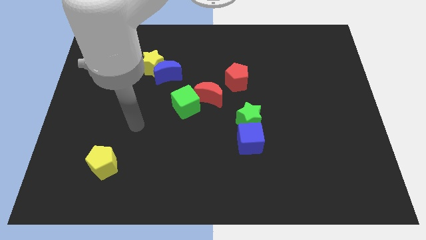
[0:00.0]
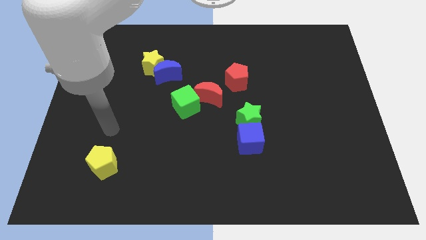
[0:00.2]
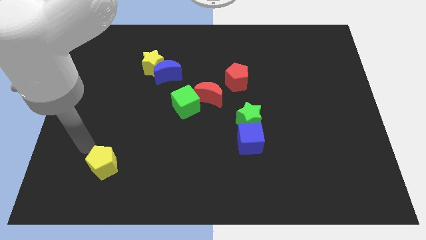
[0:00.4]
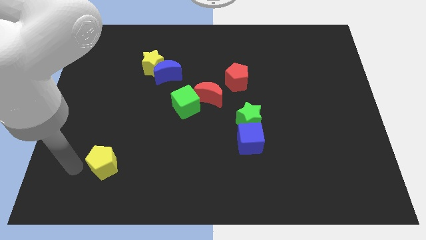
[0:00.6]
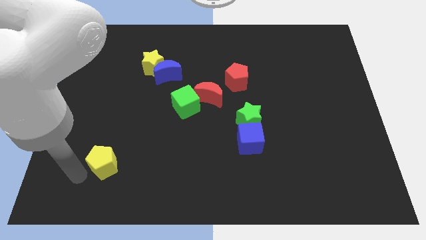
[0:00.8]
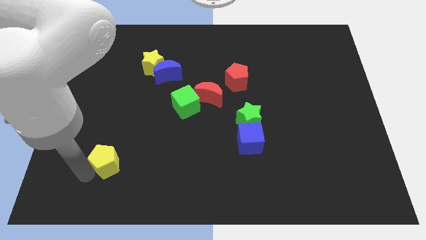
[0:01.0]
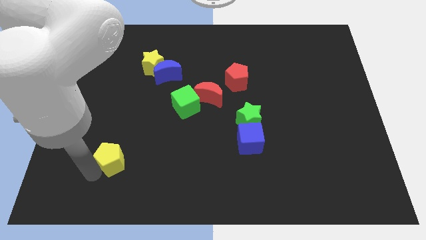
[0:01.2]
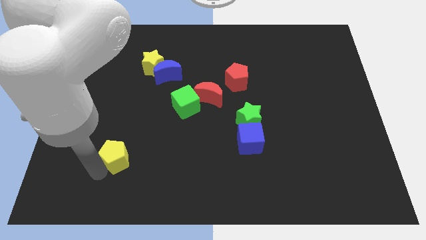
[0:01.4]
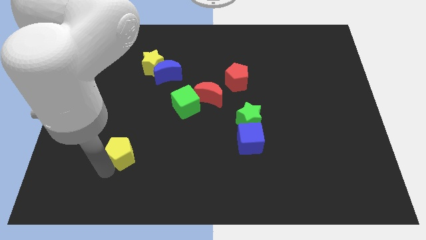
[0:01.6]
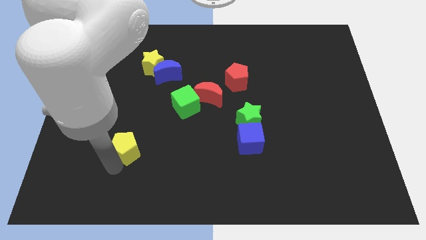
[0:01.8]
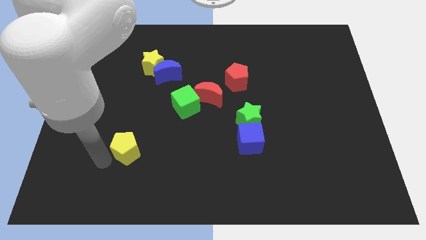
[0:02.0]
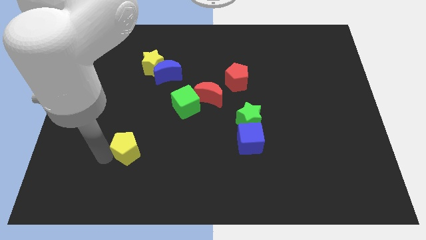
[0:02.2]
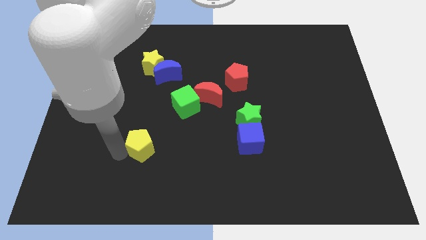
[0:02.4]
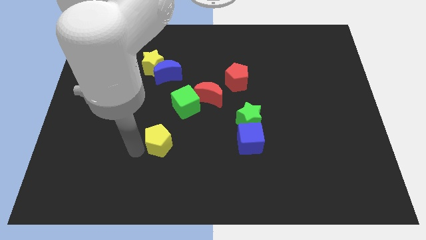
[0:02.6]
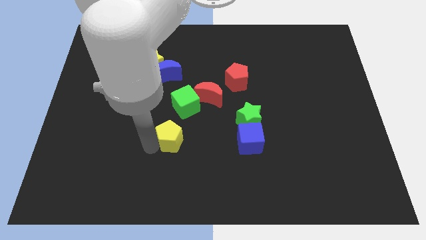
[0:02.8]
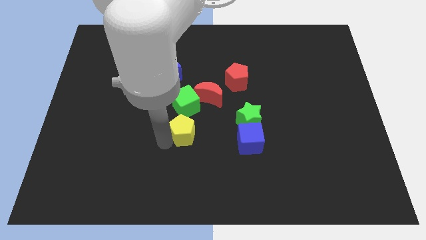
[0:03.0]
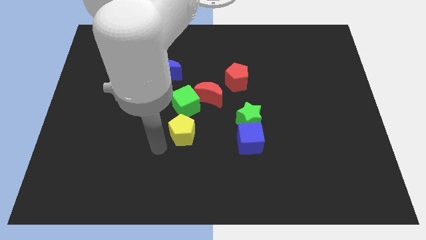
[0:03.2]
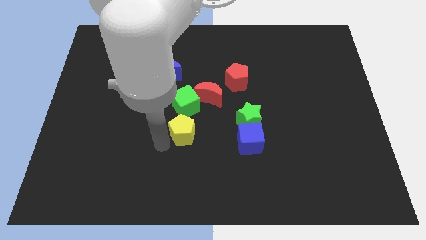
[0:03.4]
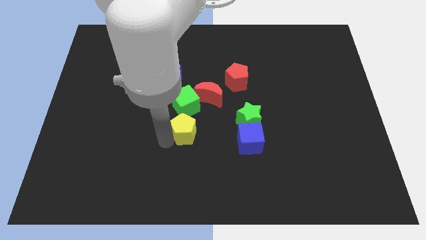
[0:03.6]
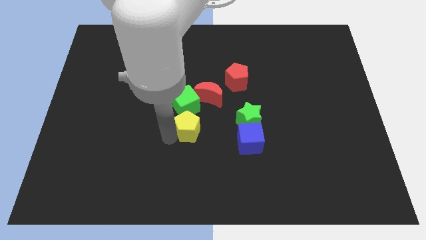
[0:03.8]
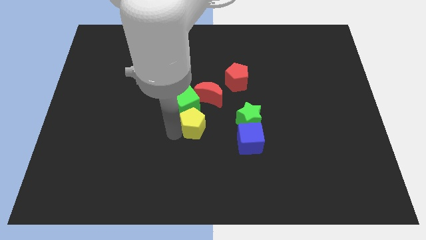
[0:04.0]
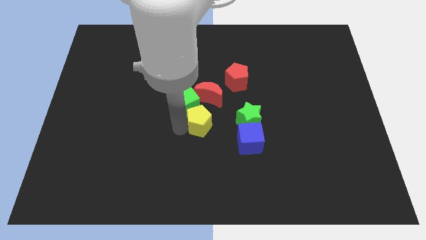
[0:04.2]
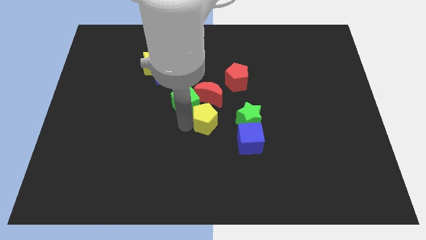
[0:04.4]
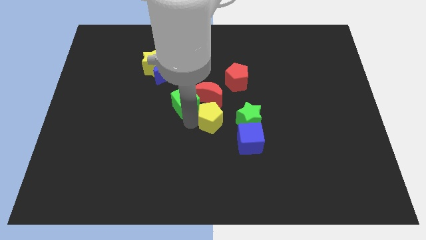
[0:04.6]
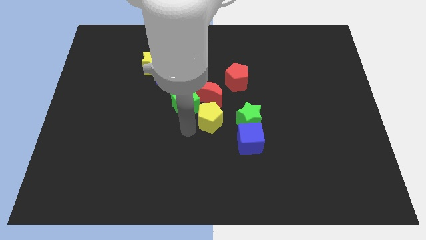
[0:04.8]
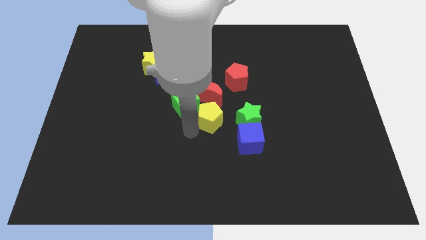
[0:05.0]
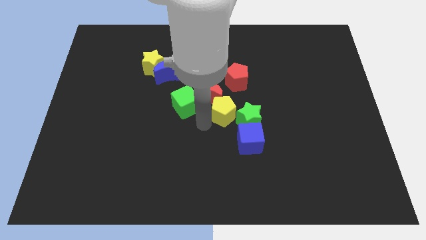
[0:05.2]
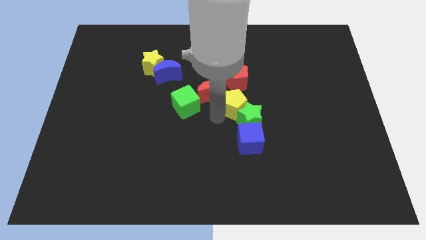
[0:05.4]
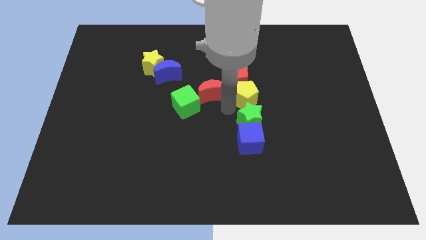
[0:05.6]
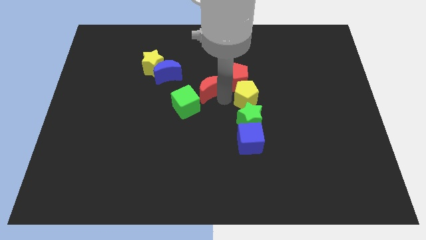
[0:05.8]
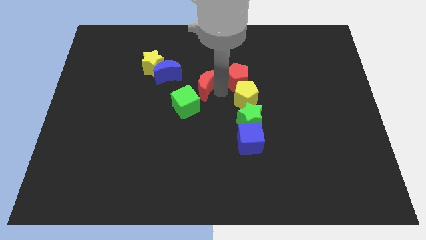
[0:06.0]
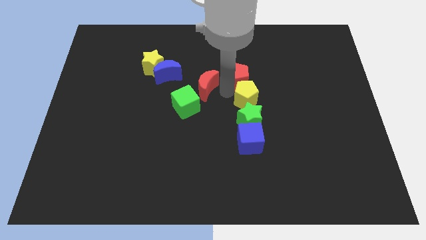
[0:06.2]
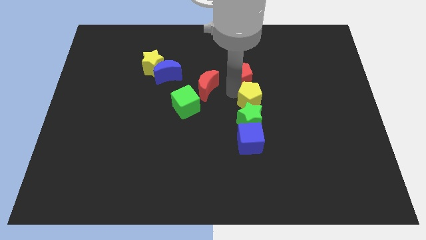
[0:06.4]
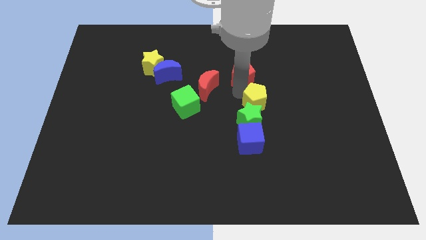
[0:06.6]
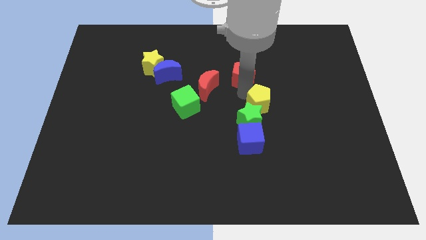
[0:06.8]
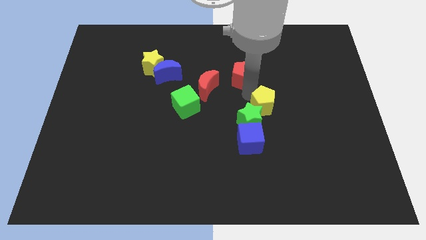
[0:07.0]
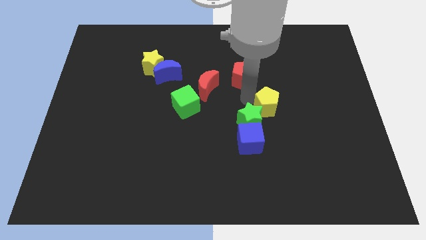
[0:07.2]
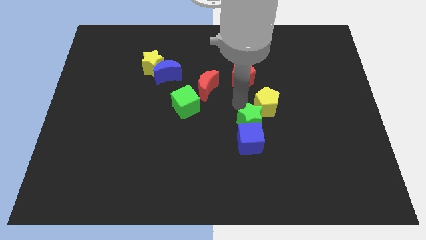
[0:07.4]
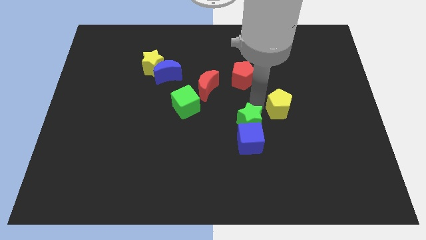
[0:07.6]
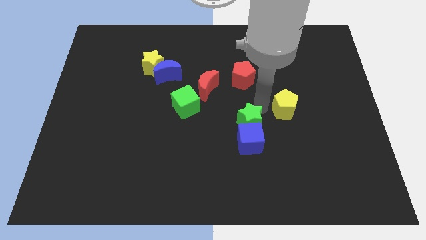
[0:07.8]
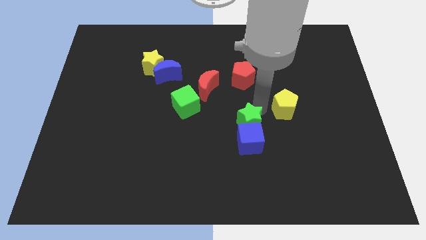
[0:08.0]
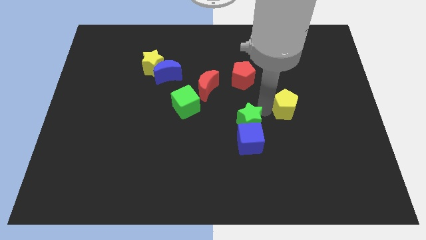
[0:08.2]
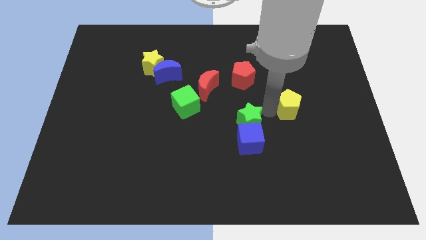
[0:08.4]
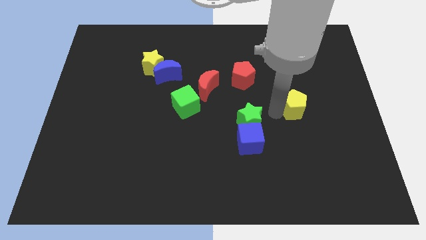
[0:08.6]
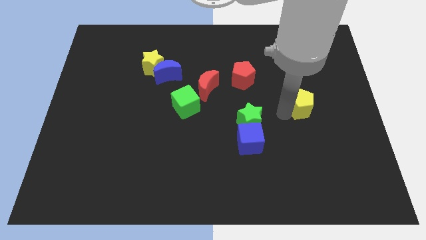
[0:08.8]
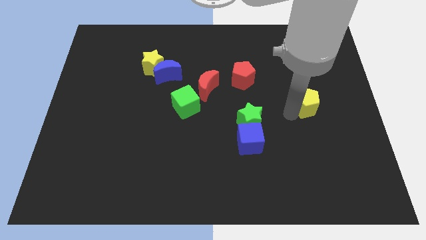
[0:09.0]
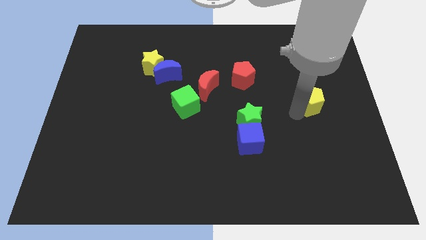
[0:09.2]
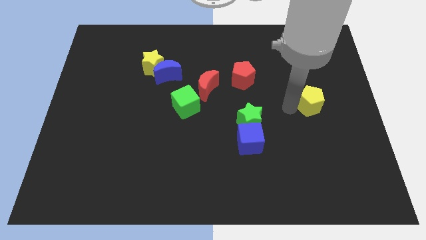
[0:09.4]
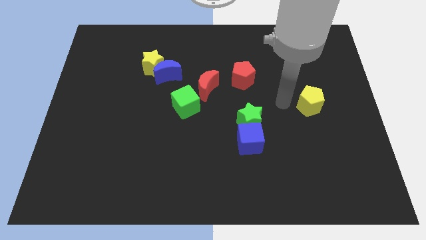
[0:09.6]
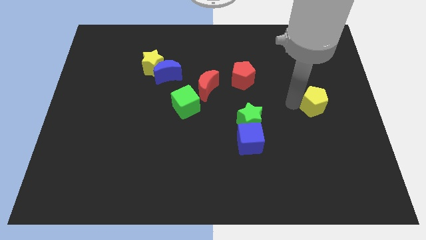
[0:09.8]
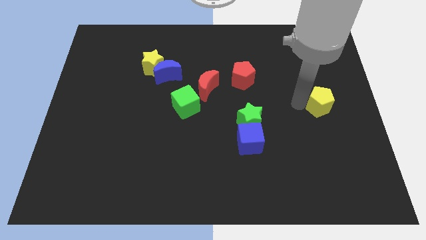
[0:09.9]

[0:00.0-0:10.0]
push the yellow pentagon to the right side of the board

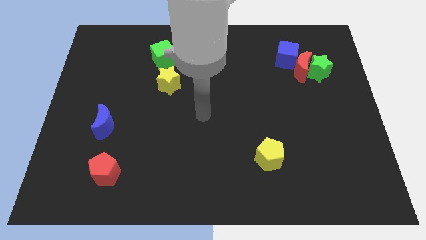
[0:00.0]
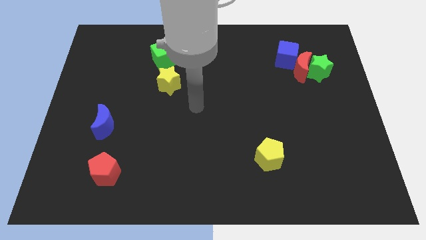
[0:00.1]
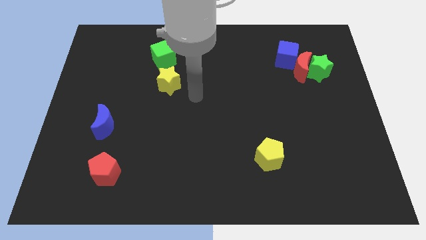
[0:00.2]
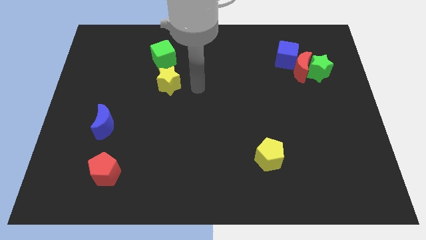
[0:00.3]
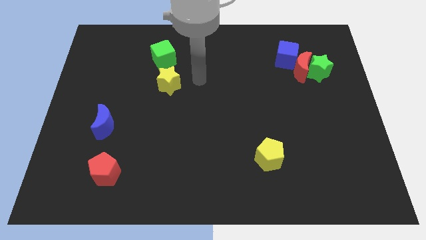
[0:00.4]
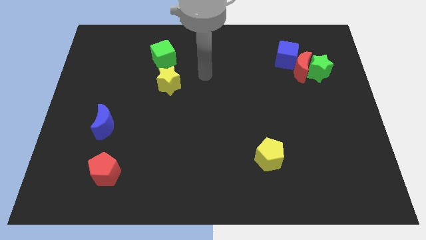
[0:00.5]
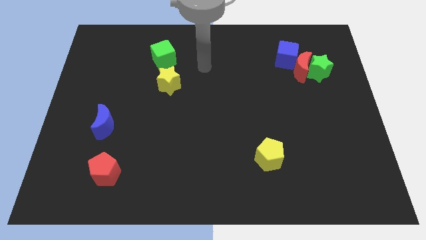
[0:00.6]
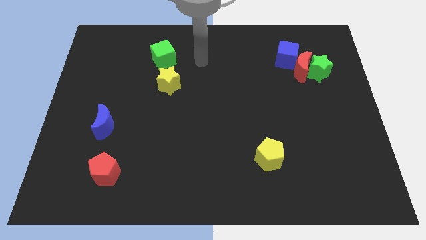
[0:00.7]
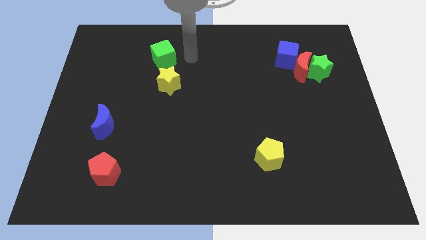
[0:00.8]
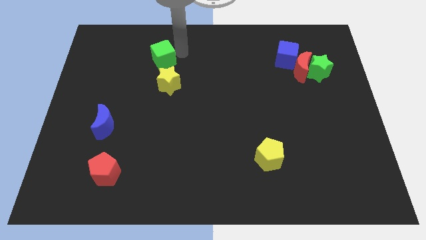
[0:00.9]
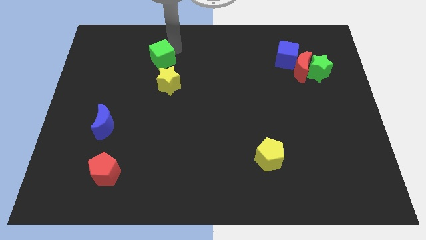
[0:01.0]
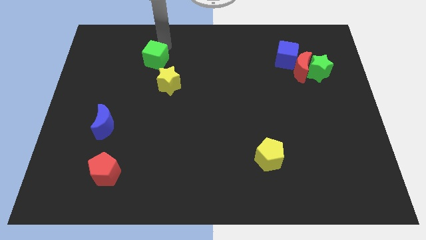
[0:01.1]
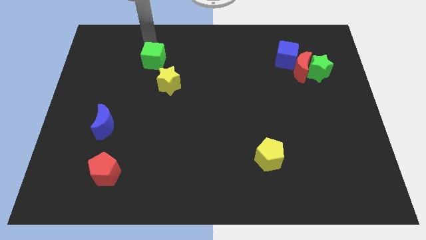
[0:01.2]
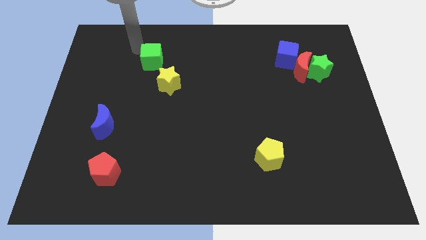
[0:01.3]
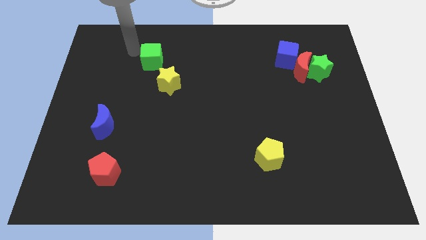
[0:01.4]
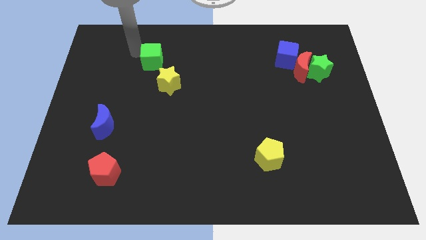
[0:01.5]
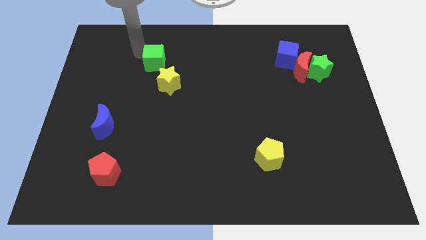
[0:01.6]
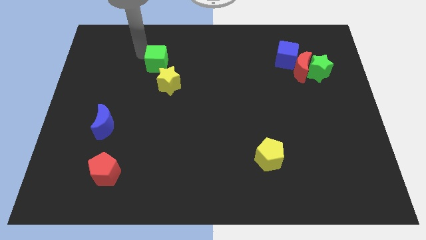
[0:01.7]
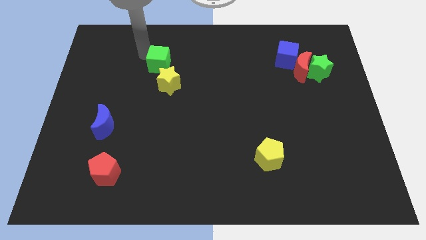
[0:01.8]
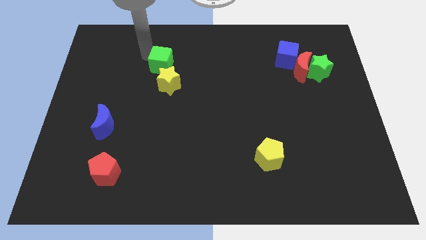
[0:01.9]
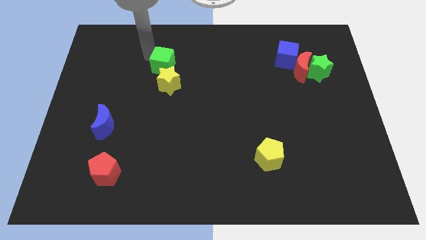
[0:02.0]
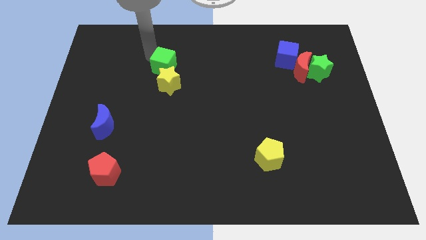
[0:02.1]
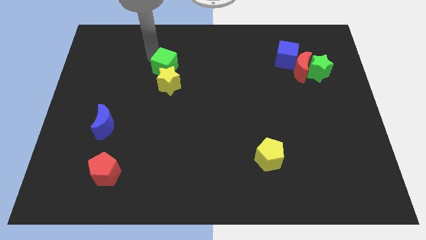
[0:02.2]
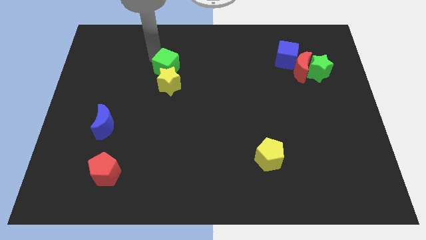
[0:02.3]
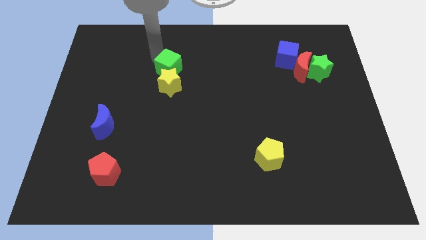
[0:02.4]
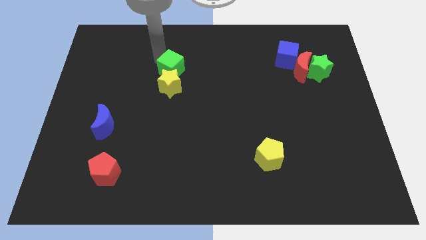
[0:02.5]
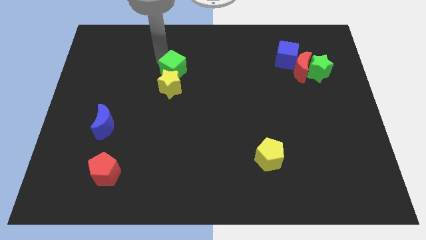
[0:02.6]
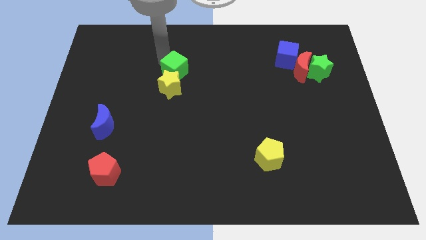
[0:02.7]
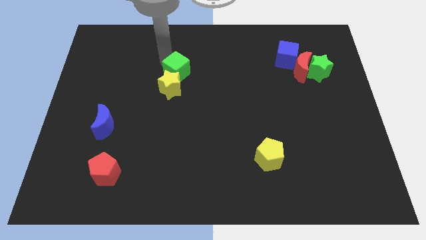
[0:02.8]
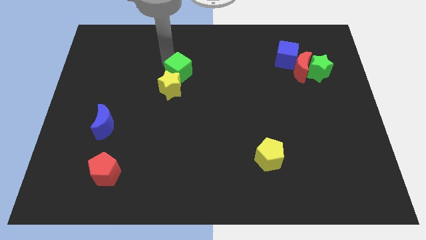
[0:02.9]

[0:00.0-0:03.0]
push the green cube to the middle
